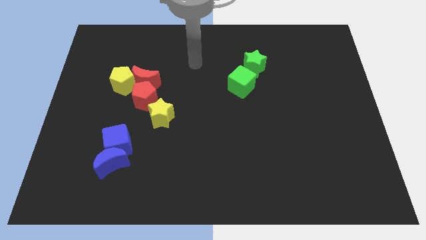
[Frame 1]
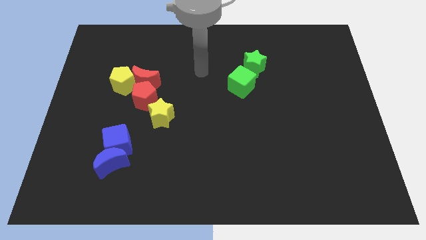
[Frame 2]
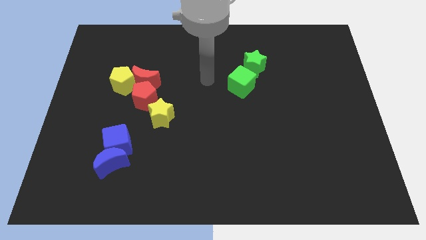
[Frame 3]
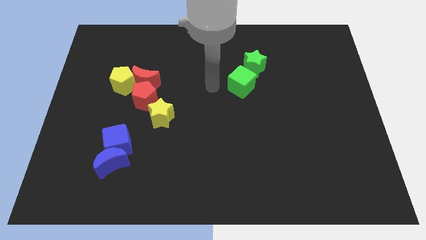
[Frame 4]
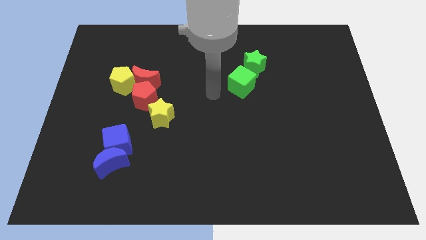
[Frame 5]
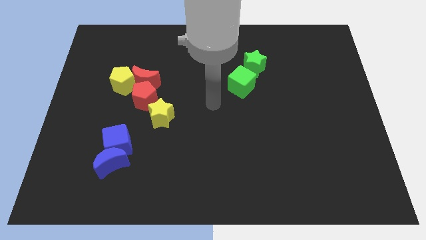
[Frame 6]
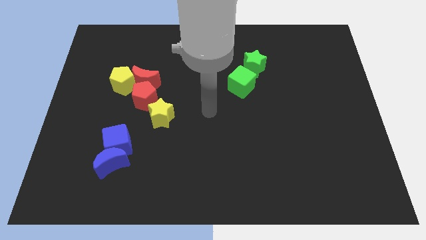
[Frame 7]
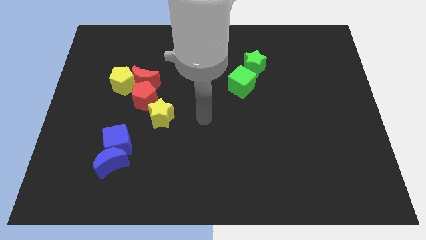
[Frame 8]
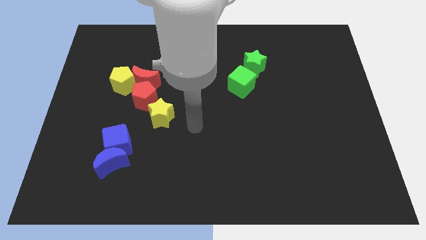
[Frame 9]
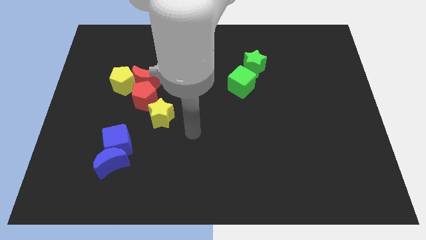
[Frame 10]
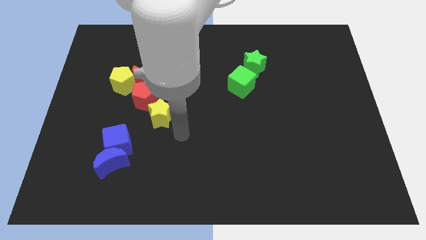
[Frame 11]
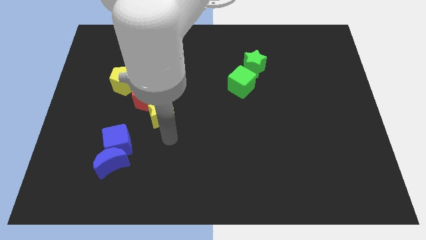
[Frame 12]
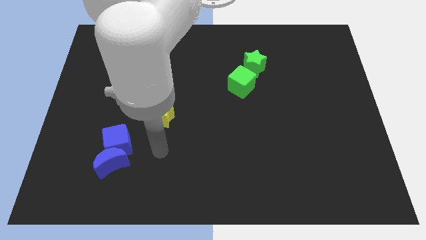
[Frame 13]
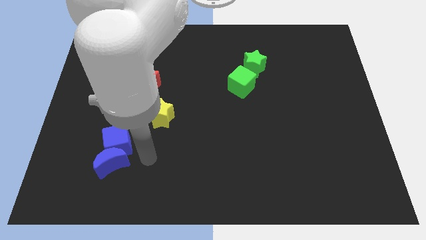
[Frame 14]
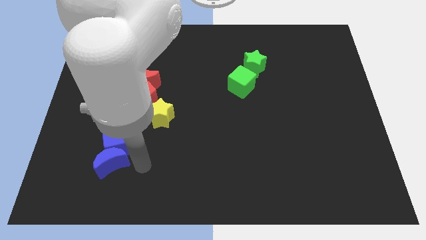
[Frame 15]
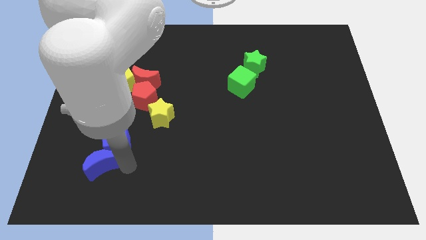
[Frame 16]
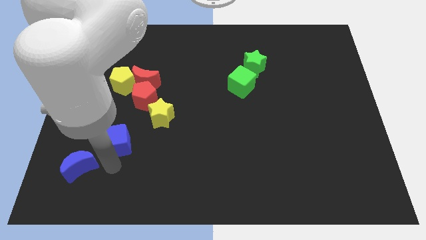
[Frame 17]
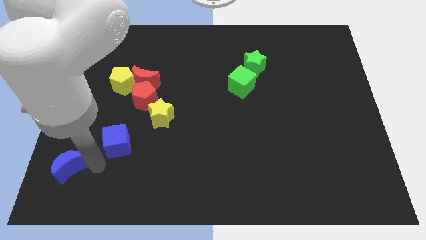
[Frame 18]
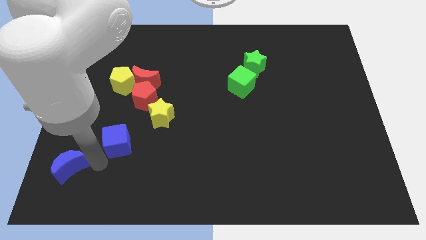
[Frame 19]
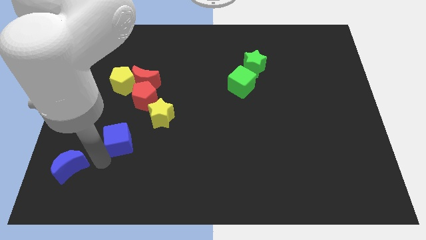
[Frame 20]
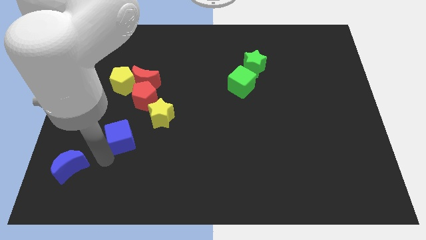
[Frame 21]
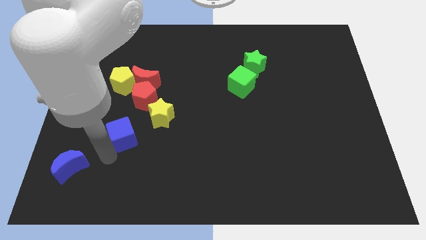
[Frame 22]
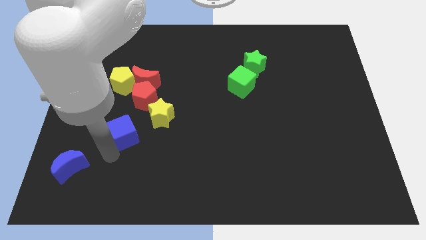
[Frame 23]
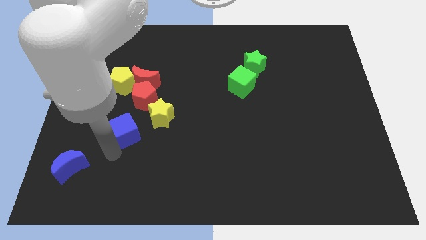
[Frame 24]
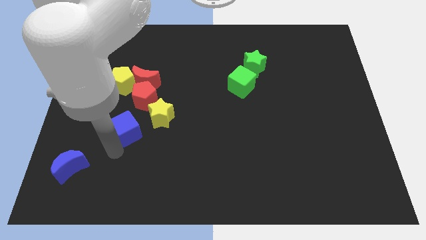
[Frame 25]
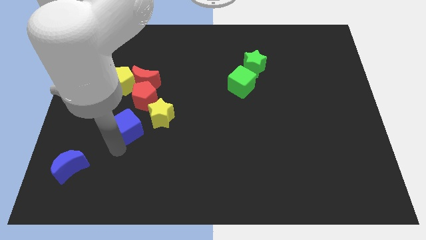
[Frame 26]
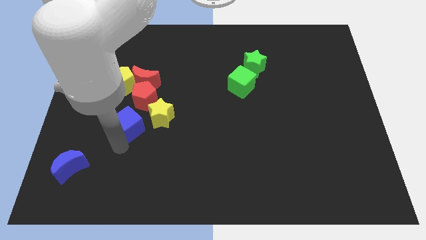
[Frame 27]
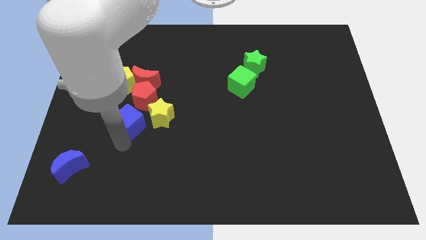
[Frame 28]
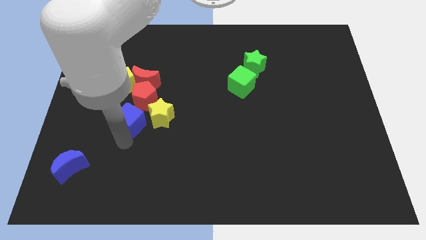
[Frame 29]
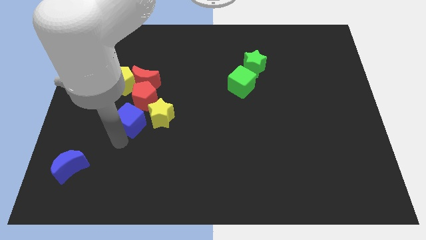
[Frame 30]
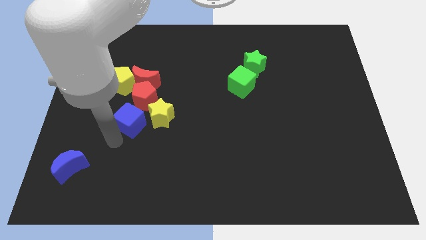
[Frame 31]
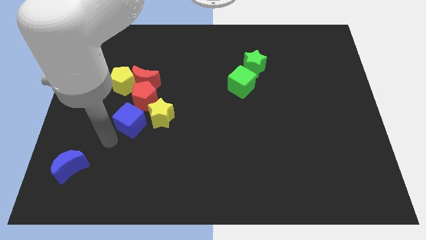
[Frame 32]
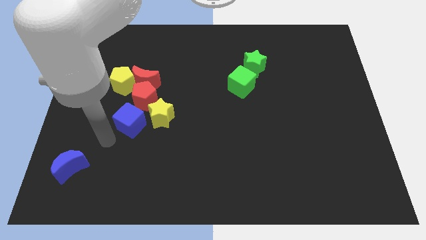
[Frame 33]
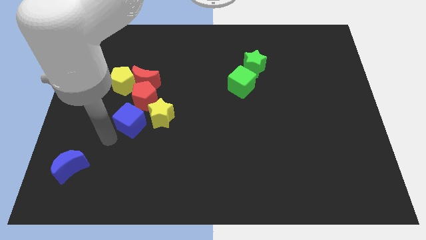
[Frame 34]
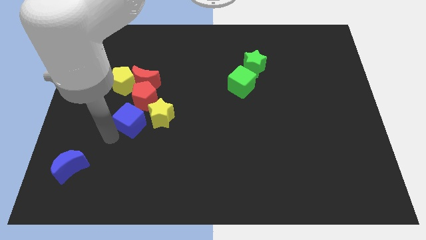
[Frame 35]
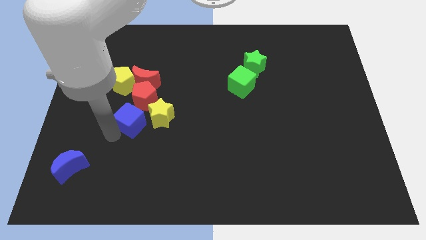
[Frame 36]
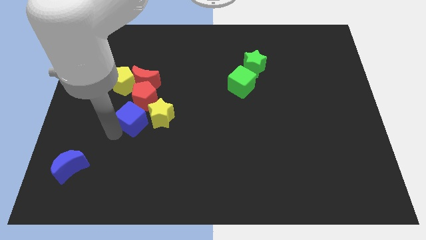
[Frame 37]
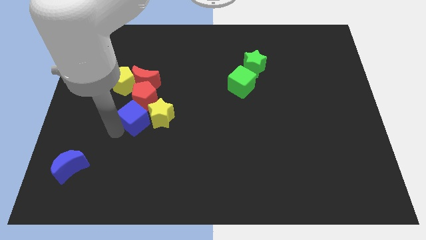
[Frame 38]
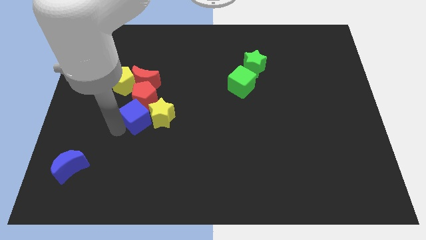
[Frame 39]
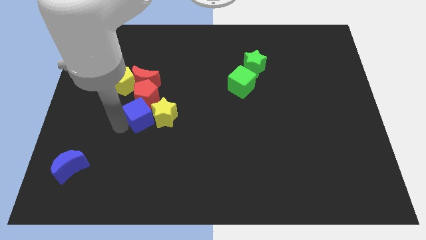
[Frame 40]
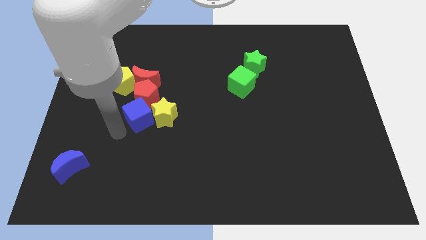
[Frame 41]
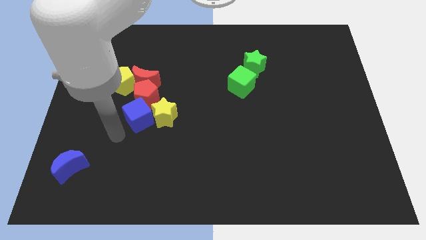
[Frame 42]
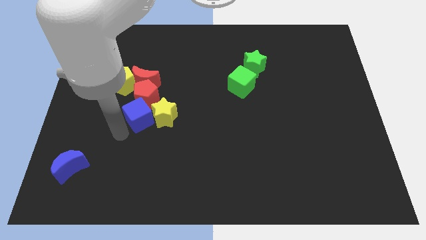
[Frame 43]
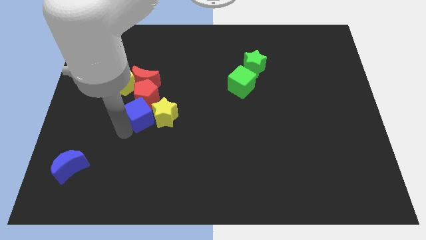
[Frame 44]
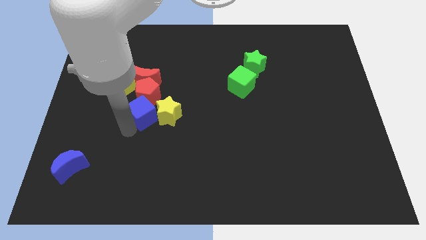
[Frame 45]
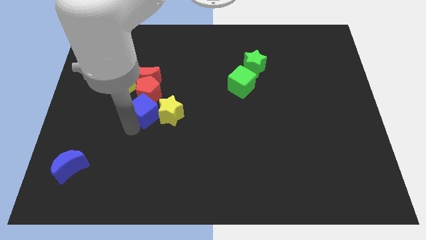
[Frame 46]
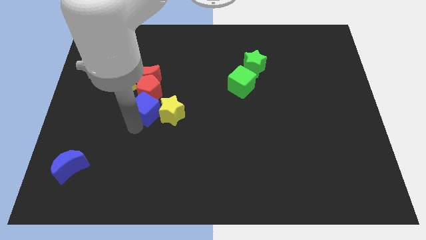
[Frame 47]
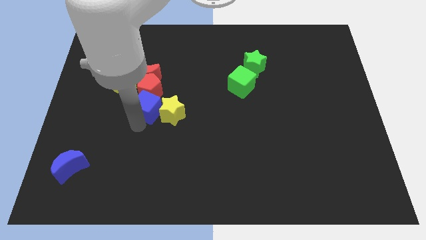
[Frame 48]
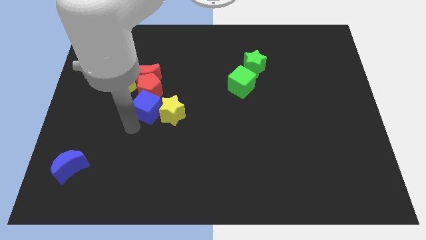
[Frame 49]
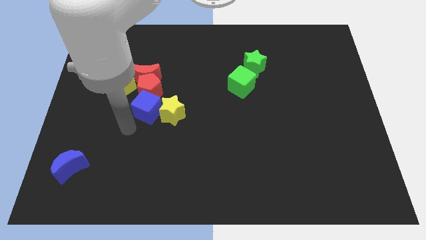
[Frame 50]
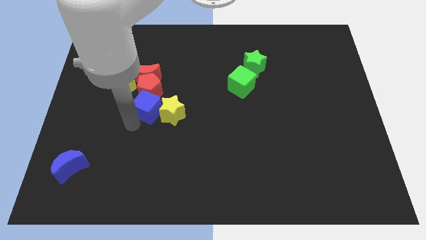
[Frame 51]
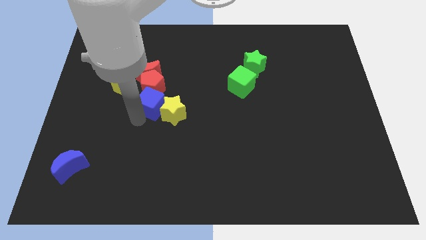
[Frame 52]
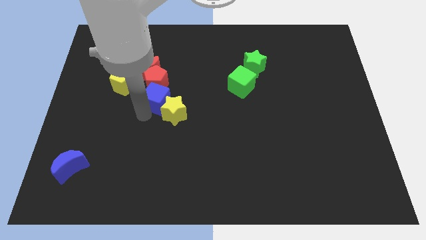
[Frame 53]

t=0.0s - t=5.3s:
slide the blue cube to the bottom right side of the red moon

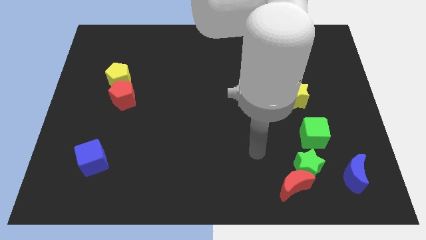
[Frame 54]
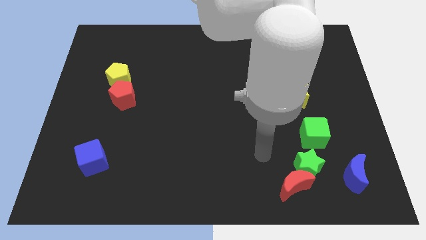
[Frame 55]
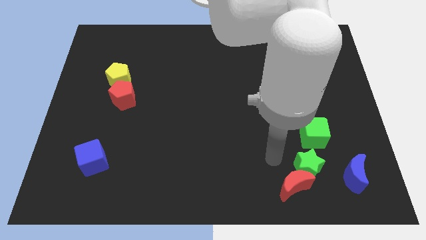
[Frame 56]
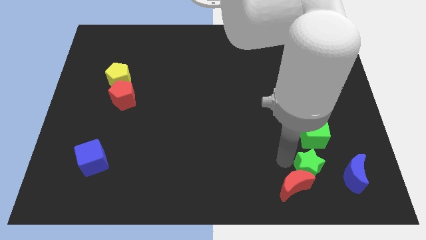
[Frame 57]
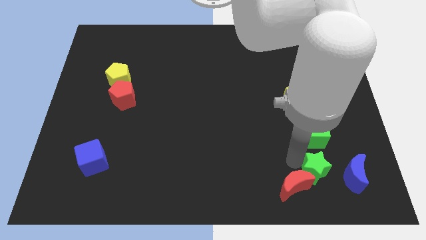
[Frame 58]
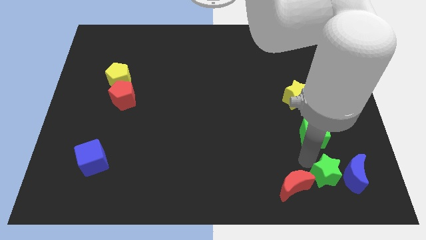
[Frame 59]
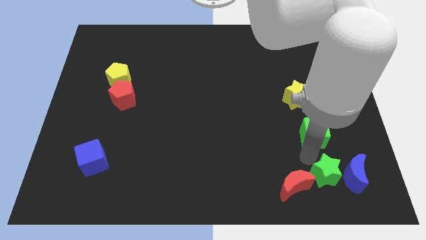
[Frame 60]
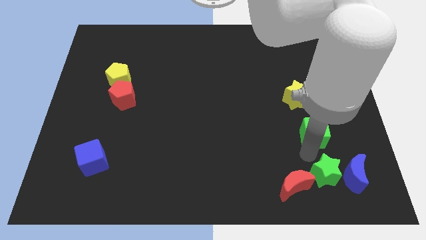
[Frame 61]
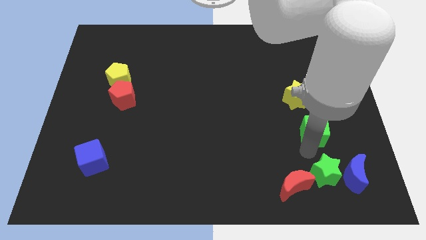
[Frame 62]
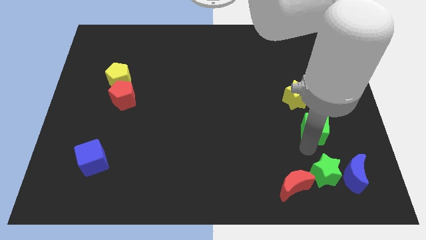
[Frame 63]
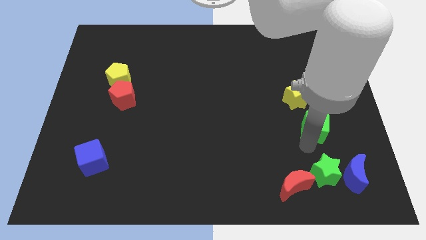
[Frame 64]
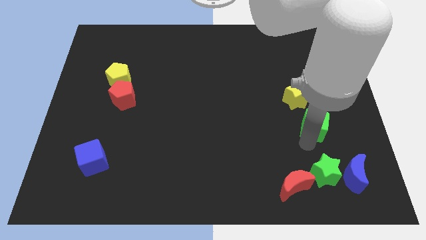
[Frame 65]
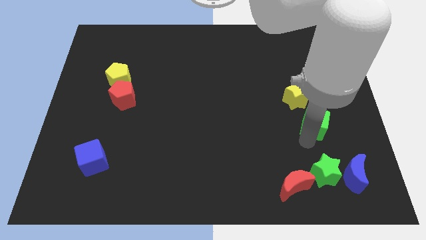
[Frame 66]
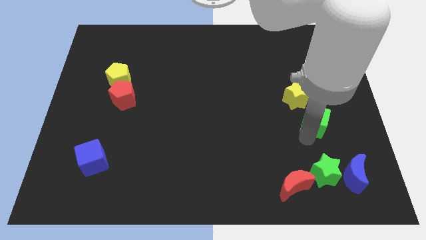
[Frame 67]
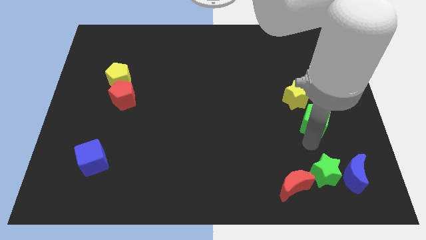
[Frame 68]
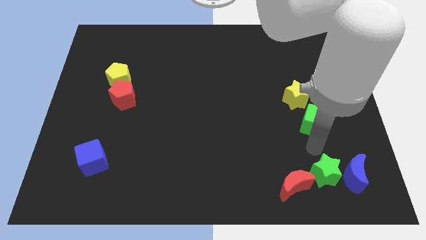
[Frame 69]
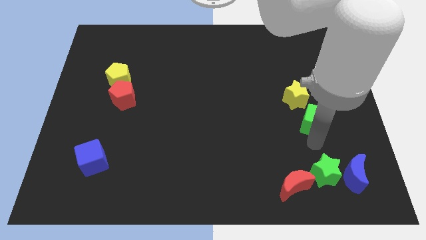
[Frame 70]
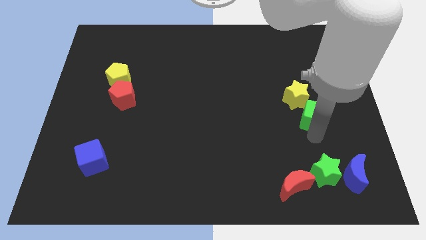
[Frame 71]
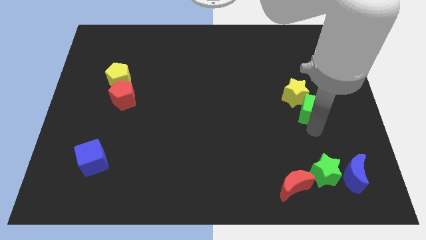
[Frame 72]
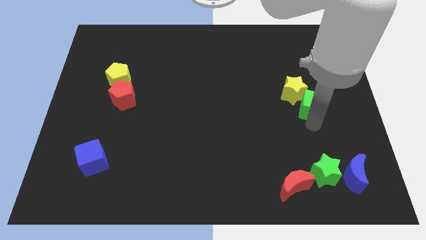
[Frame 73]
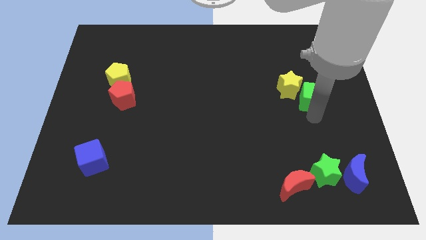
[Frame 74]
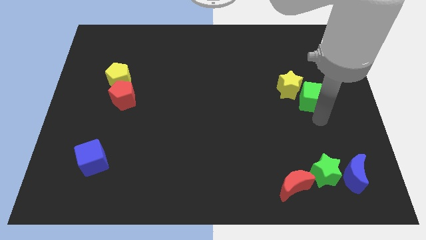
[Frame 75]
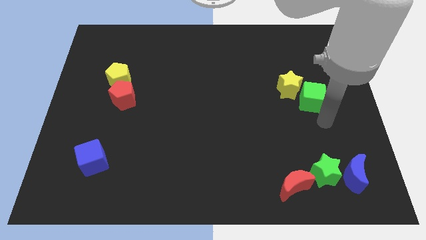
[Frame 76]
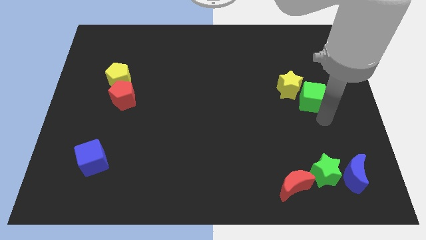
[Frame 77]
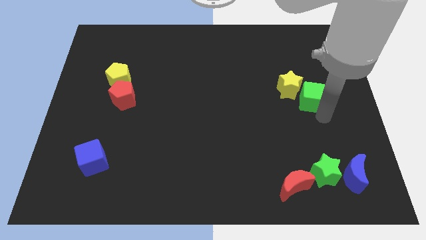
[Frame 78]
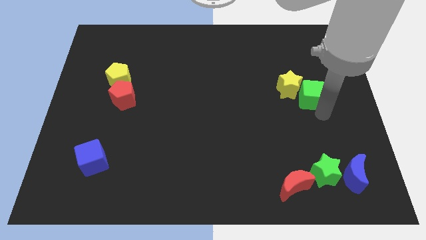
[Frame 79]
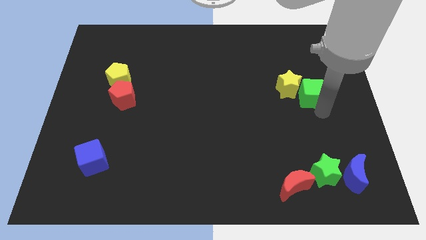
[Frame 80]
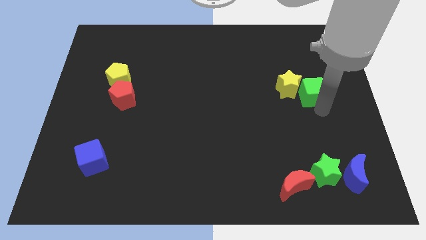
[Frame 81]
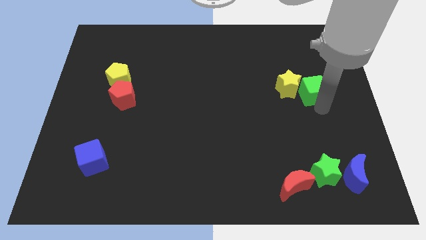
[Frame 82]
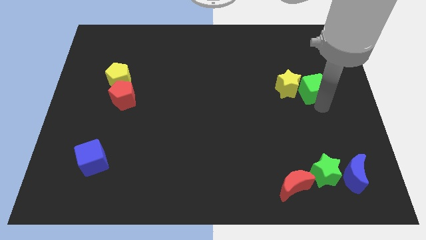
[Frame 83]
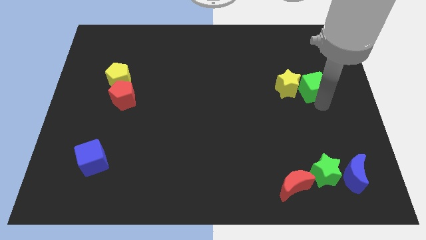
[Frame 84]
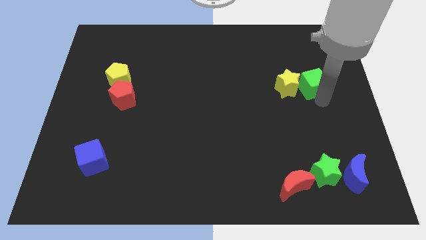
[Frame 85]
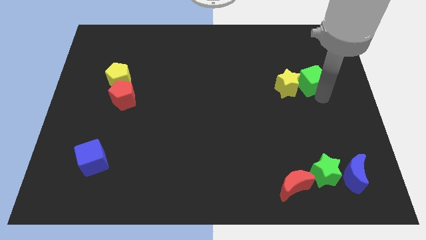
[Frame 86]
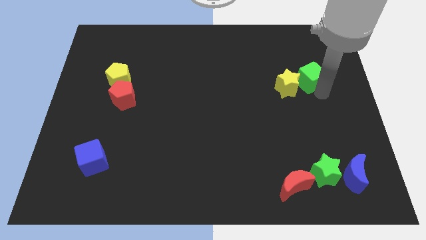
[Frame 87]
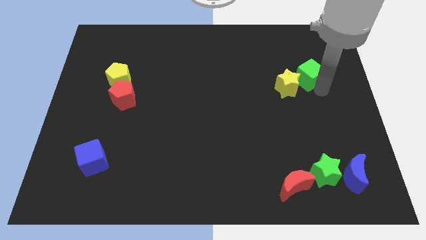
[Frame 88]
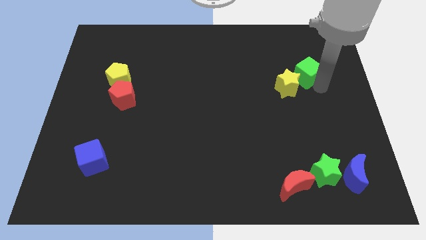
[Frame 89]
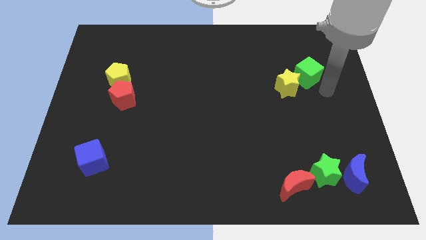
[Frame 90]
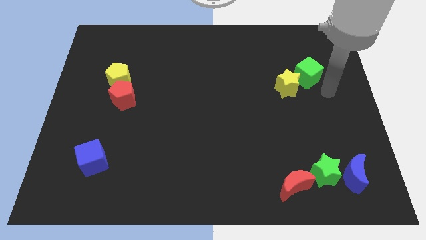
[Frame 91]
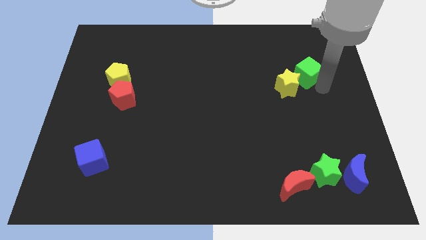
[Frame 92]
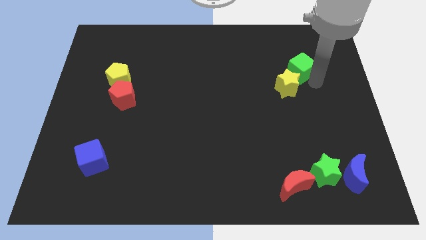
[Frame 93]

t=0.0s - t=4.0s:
put the green cube to the top of the yellow star
